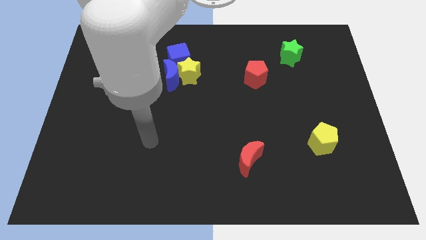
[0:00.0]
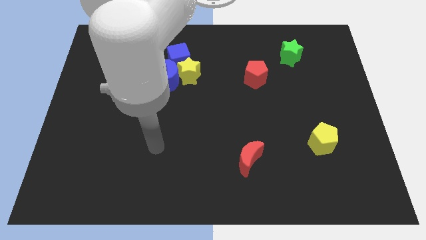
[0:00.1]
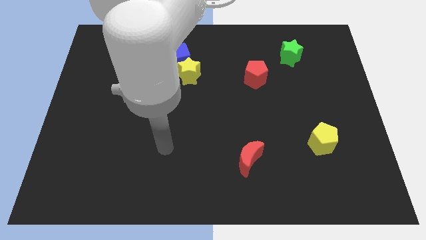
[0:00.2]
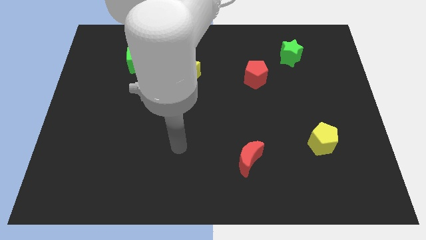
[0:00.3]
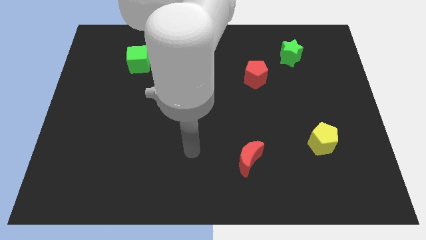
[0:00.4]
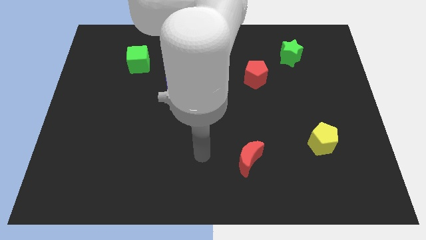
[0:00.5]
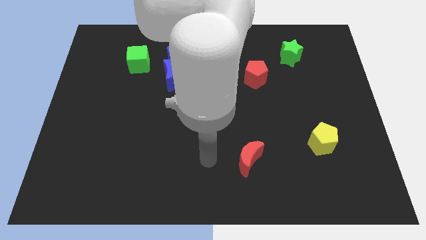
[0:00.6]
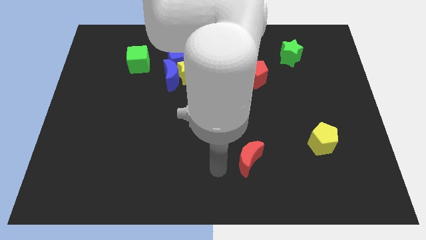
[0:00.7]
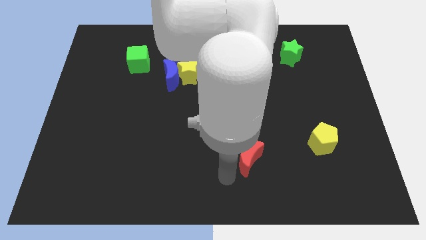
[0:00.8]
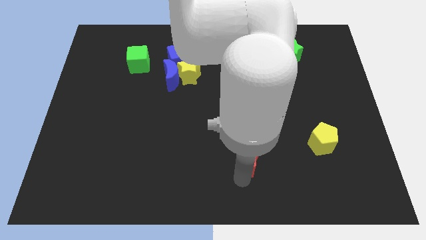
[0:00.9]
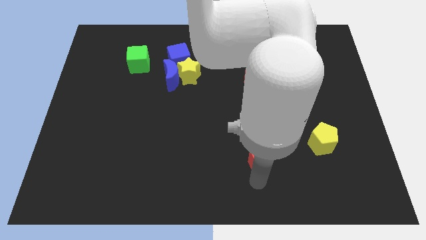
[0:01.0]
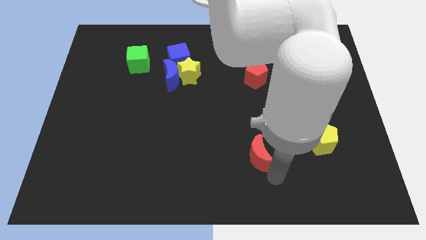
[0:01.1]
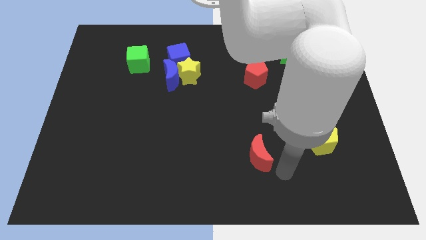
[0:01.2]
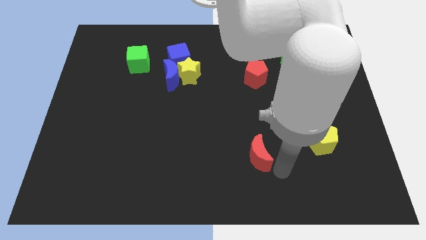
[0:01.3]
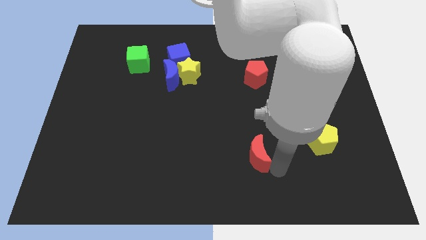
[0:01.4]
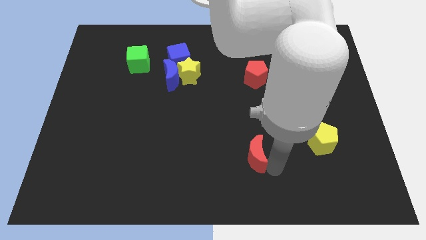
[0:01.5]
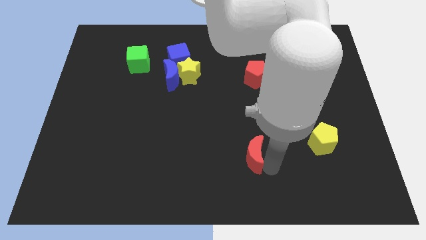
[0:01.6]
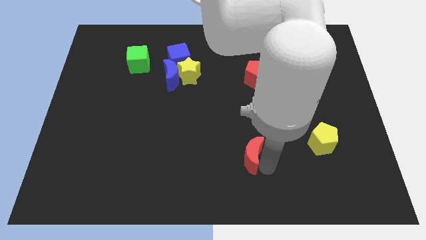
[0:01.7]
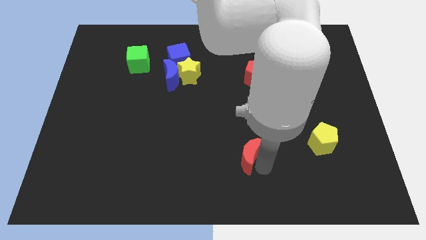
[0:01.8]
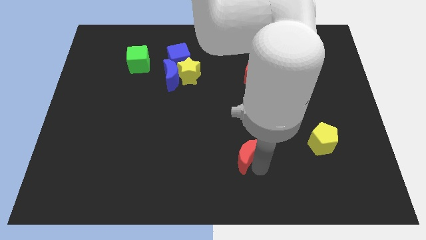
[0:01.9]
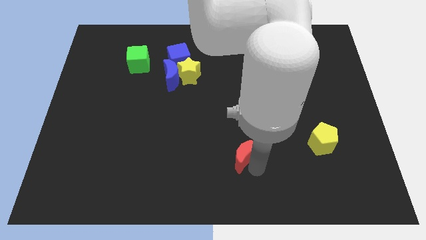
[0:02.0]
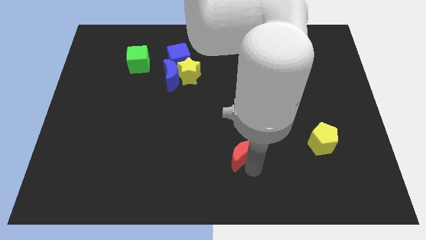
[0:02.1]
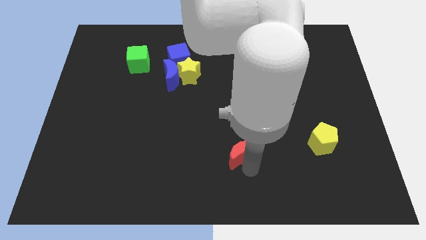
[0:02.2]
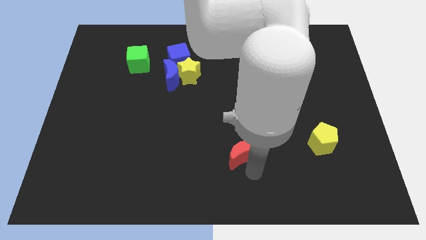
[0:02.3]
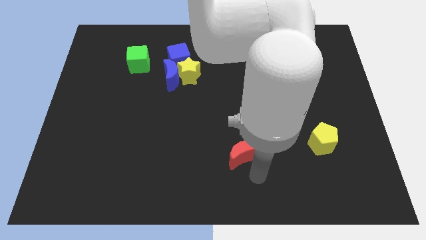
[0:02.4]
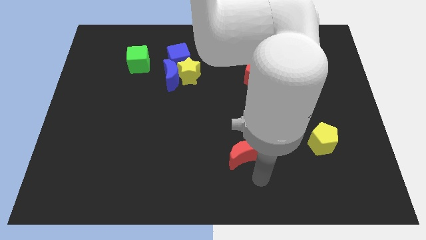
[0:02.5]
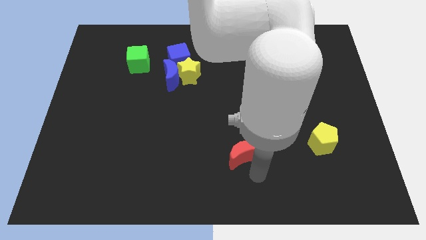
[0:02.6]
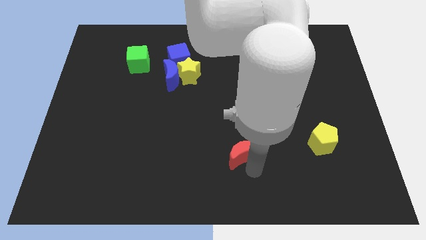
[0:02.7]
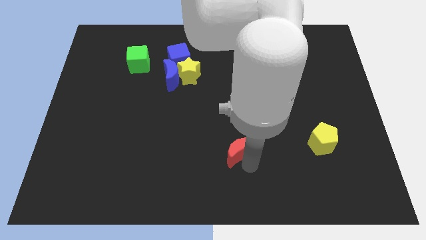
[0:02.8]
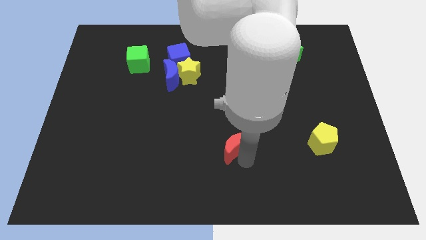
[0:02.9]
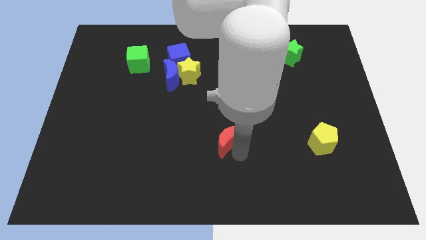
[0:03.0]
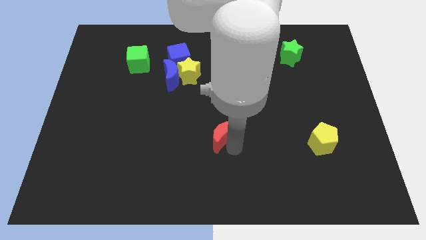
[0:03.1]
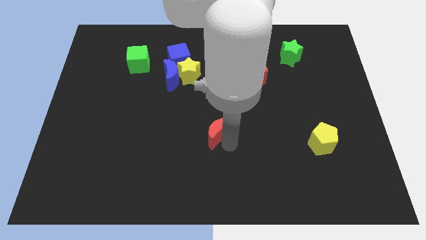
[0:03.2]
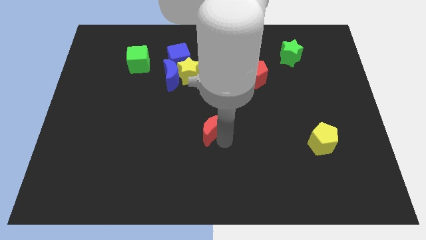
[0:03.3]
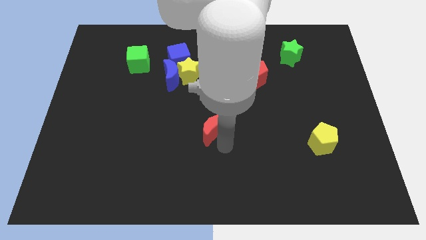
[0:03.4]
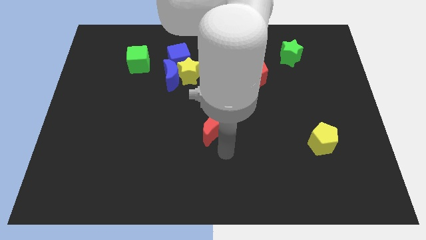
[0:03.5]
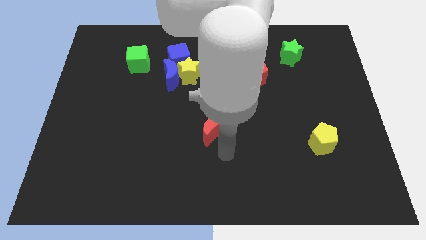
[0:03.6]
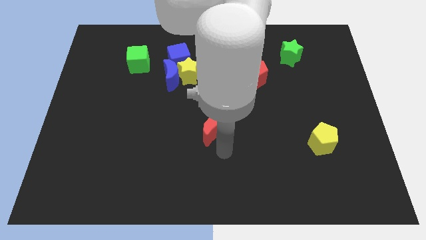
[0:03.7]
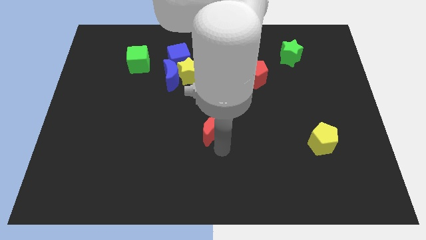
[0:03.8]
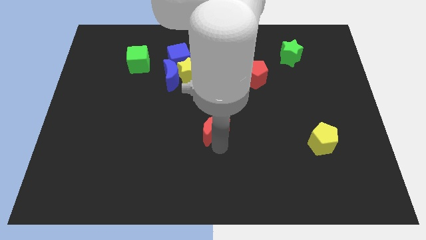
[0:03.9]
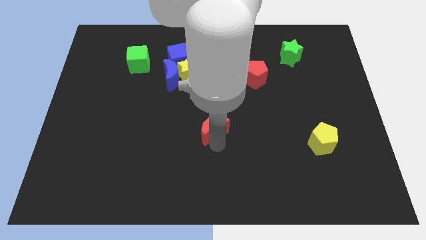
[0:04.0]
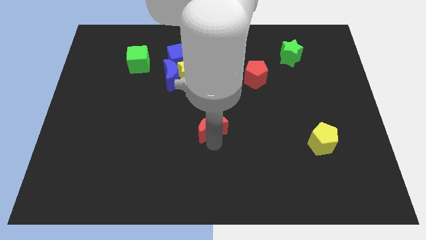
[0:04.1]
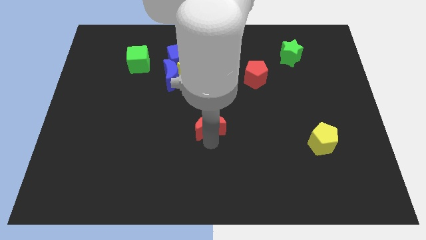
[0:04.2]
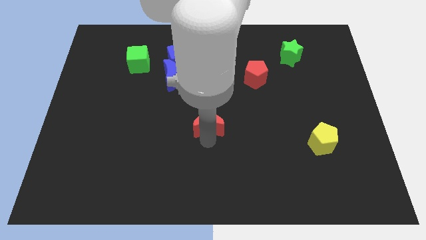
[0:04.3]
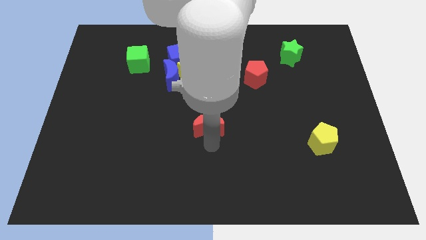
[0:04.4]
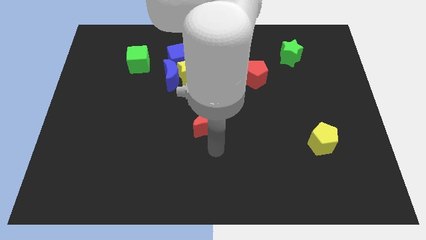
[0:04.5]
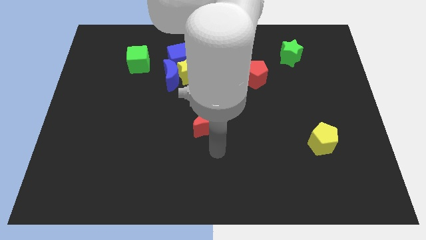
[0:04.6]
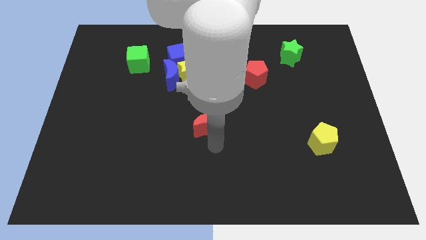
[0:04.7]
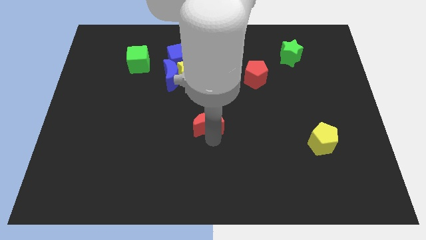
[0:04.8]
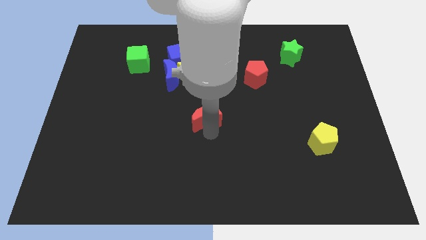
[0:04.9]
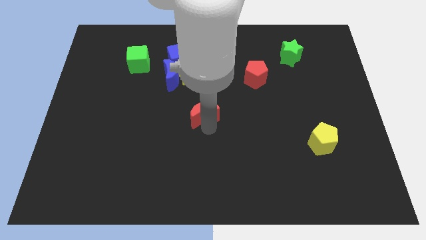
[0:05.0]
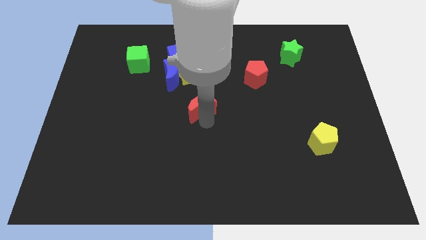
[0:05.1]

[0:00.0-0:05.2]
push the red moon to the bottom right of the blue moon

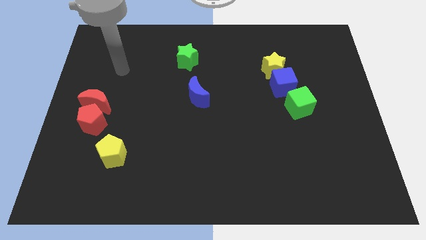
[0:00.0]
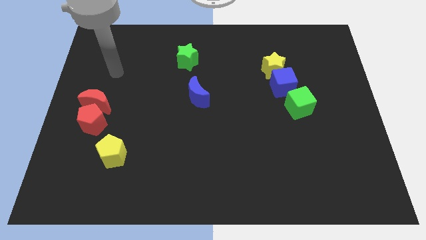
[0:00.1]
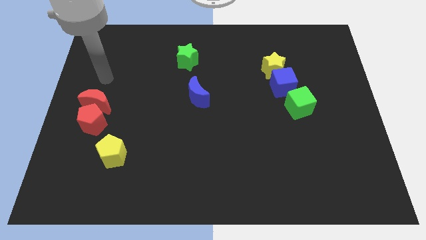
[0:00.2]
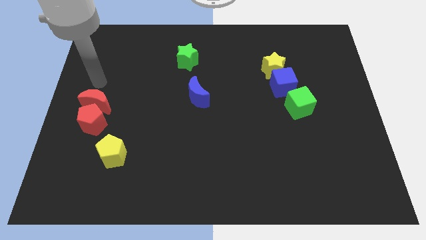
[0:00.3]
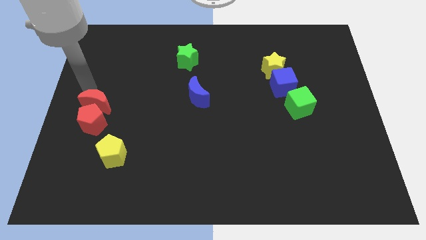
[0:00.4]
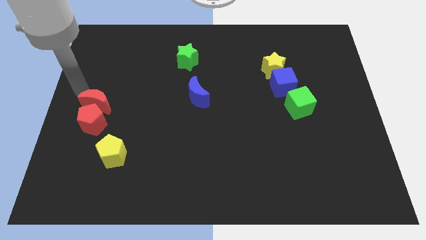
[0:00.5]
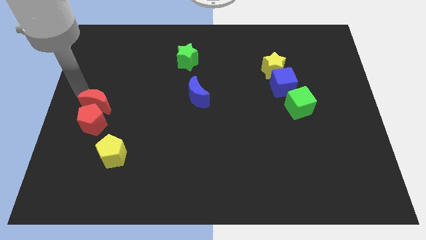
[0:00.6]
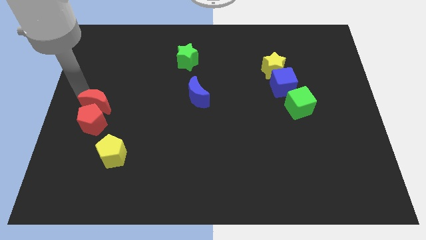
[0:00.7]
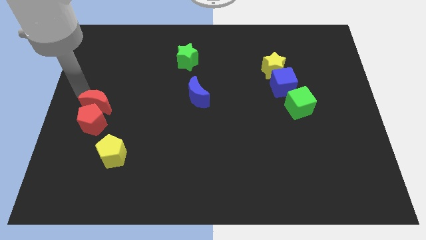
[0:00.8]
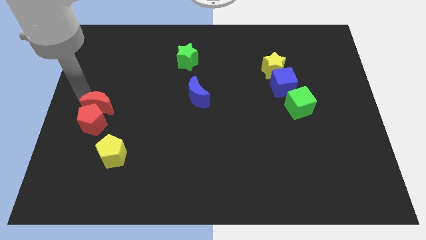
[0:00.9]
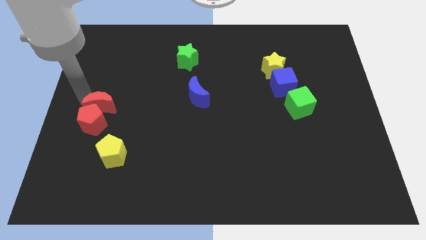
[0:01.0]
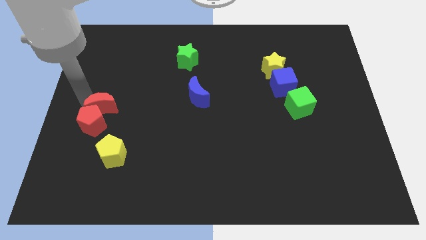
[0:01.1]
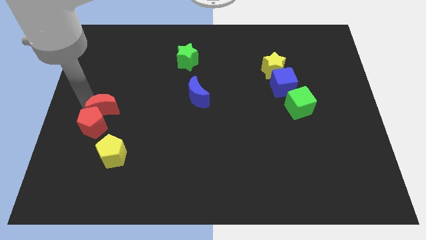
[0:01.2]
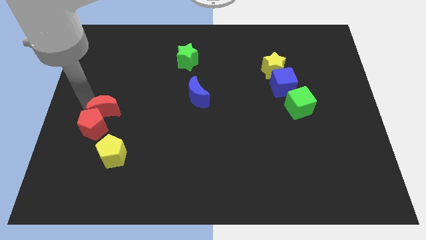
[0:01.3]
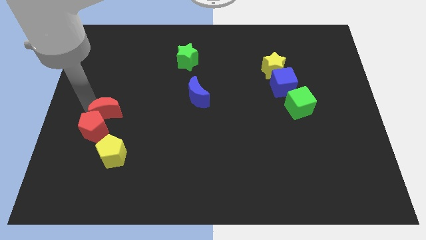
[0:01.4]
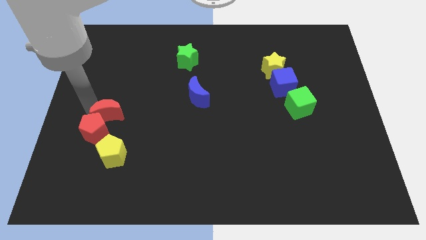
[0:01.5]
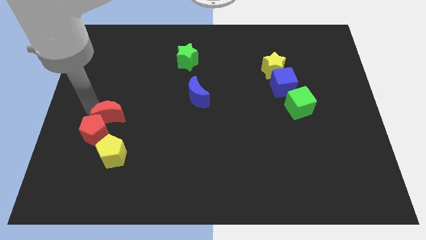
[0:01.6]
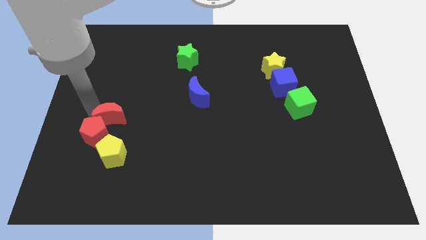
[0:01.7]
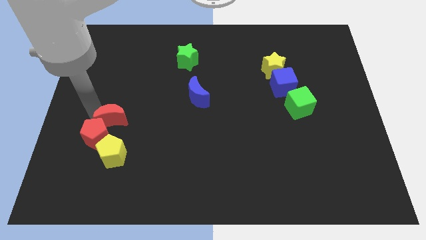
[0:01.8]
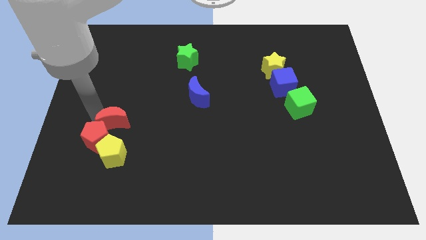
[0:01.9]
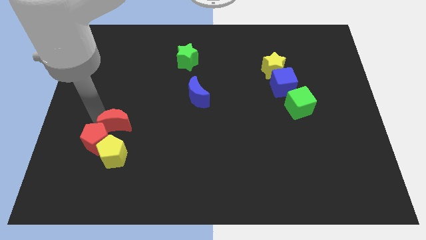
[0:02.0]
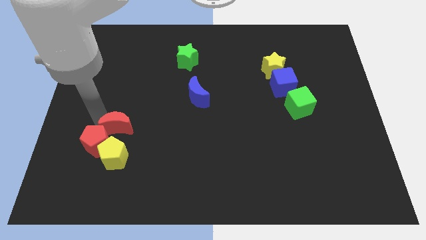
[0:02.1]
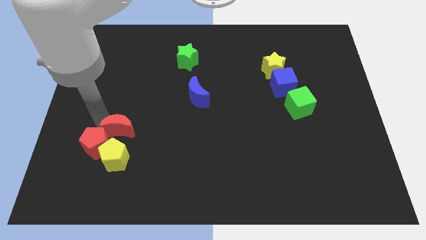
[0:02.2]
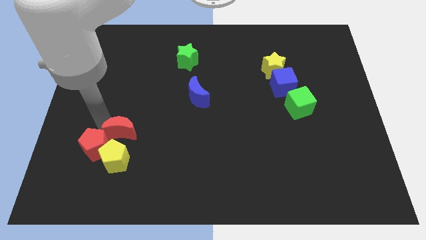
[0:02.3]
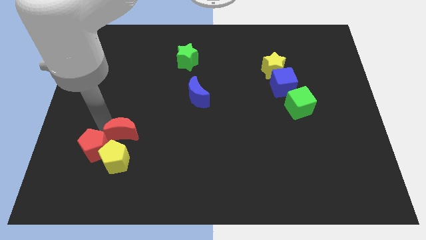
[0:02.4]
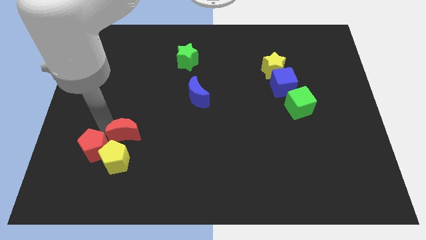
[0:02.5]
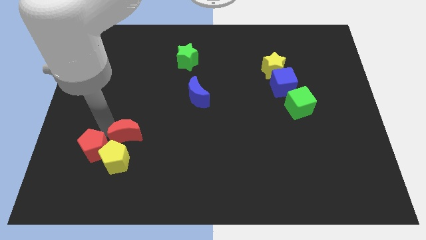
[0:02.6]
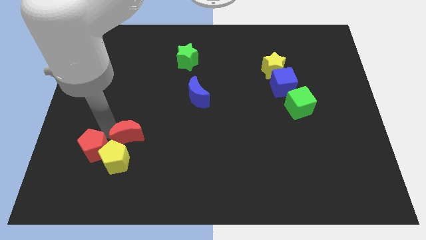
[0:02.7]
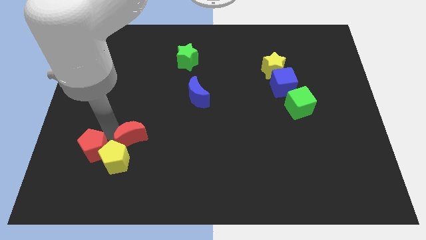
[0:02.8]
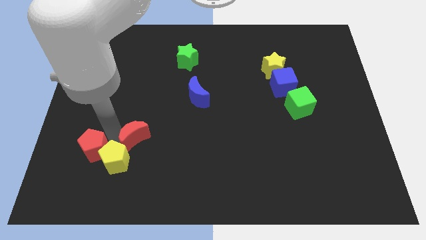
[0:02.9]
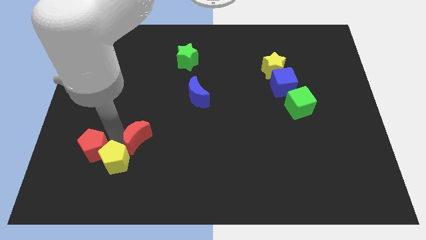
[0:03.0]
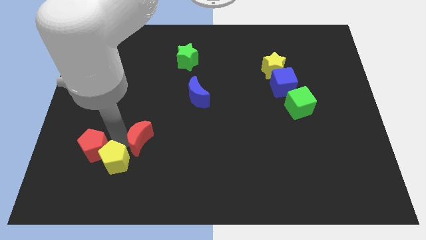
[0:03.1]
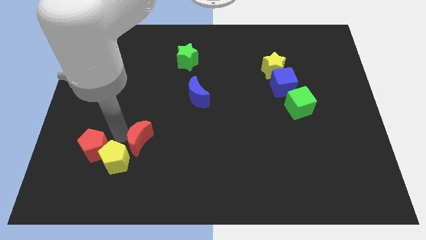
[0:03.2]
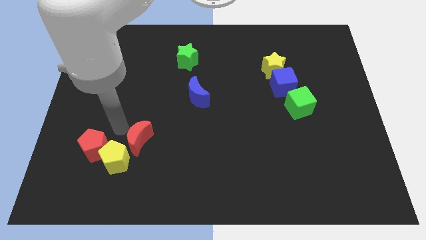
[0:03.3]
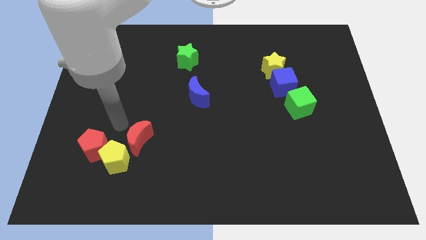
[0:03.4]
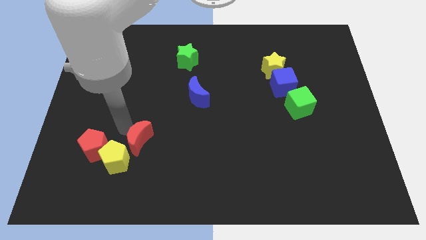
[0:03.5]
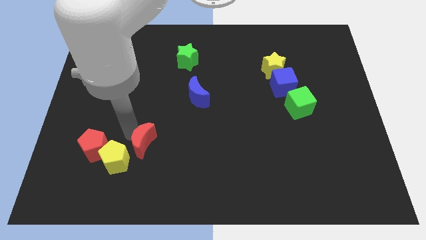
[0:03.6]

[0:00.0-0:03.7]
push the red moon right of the yellow pentagon
